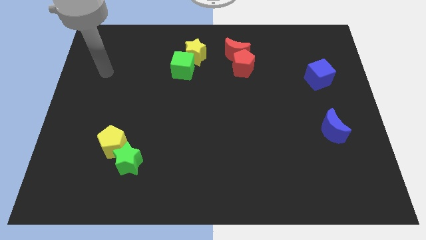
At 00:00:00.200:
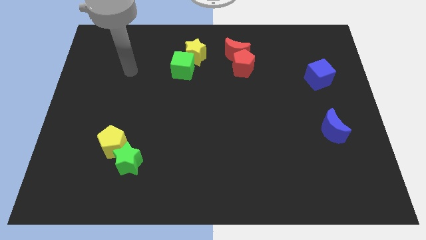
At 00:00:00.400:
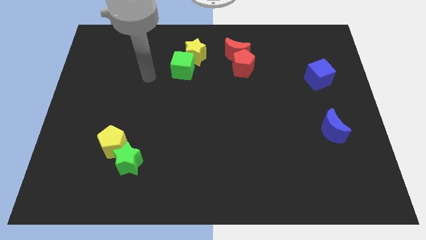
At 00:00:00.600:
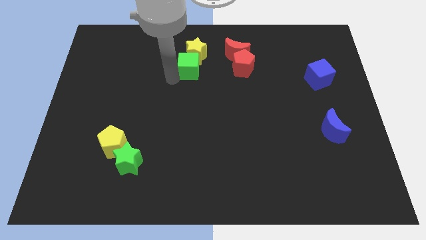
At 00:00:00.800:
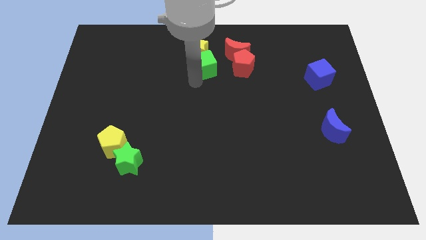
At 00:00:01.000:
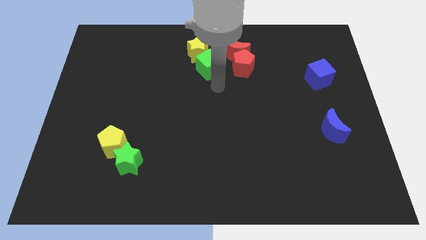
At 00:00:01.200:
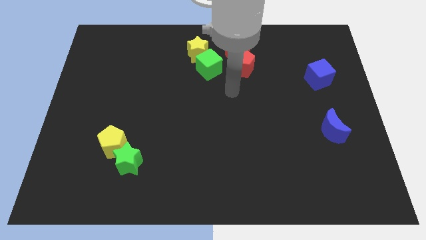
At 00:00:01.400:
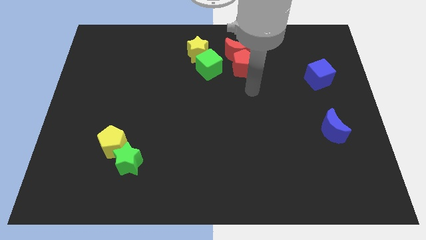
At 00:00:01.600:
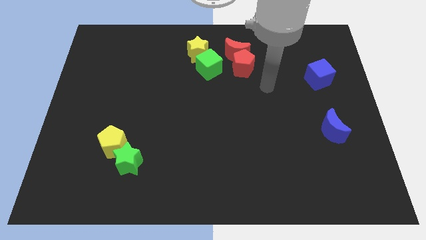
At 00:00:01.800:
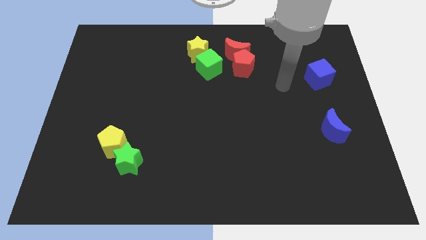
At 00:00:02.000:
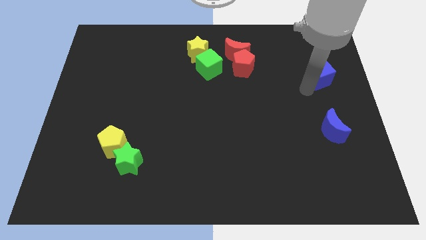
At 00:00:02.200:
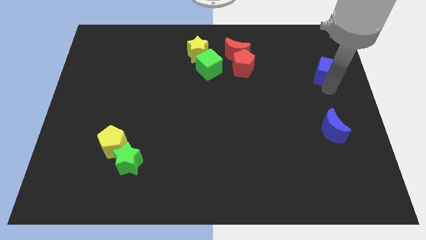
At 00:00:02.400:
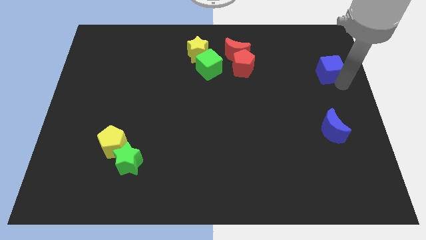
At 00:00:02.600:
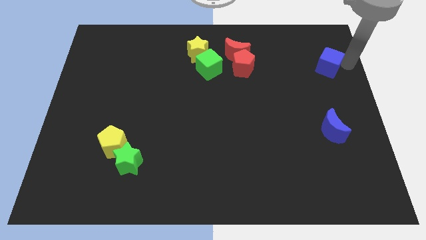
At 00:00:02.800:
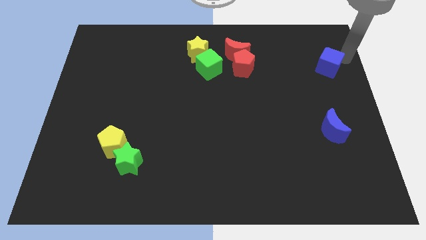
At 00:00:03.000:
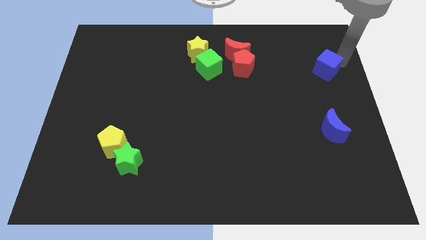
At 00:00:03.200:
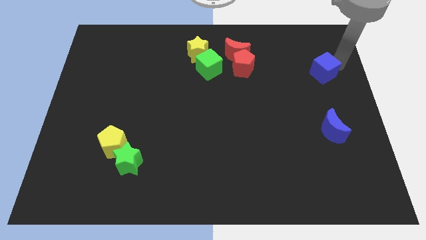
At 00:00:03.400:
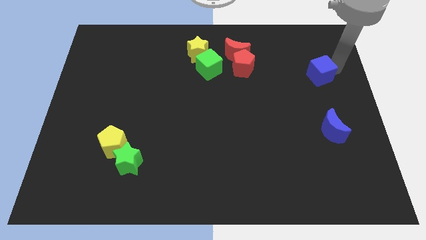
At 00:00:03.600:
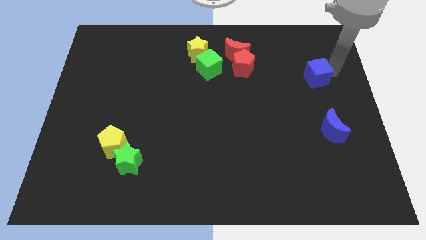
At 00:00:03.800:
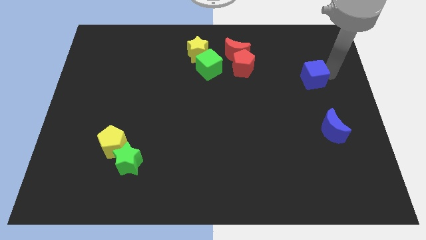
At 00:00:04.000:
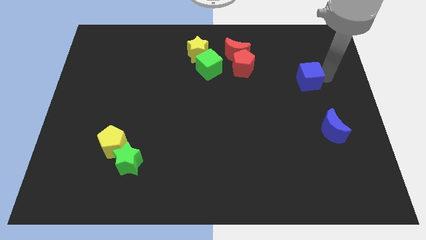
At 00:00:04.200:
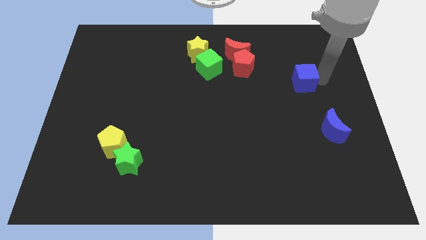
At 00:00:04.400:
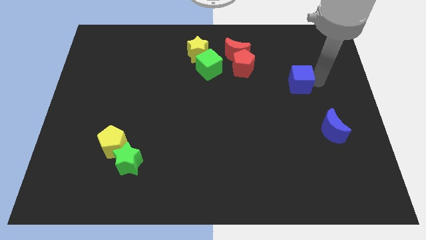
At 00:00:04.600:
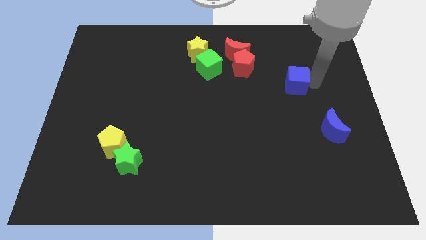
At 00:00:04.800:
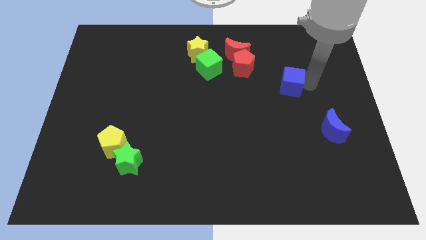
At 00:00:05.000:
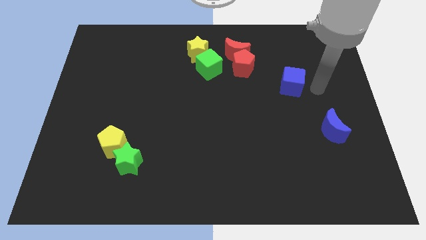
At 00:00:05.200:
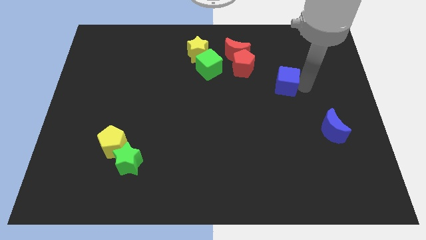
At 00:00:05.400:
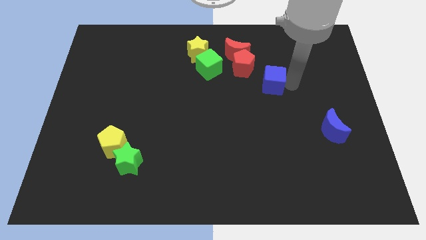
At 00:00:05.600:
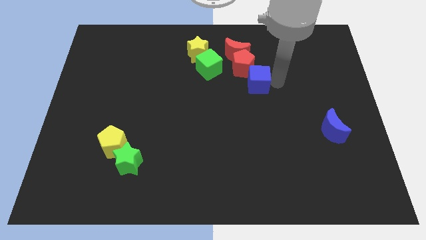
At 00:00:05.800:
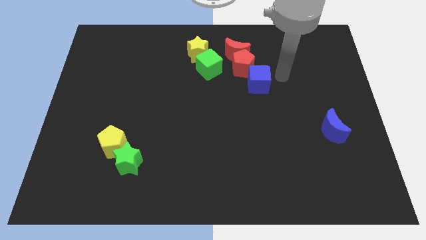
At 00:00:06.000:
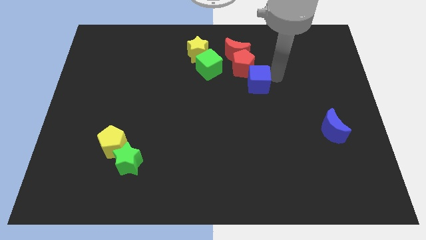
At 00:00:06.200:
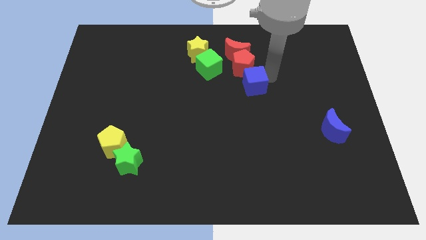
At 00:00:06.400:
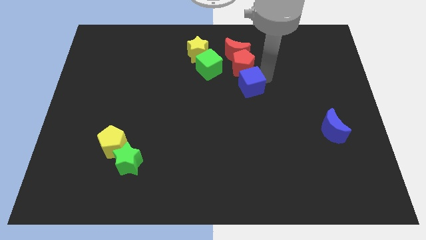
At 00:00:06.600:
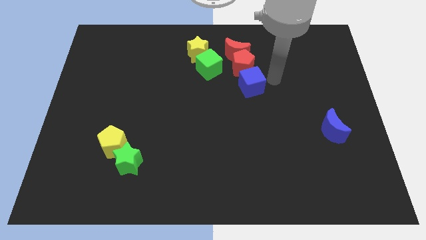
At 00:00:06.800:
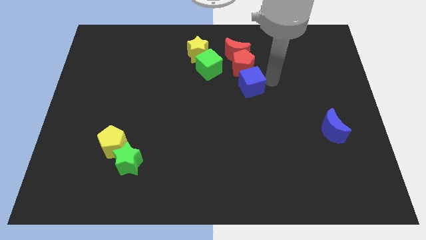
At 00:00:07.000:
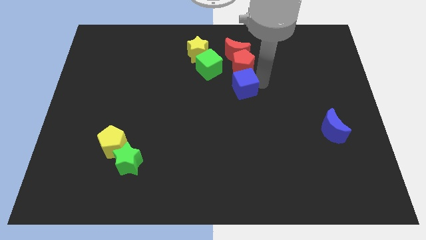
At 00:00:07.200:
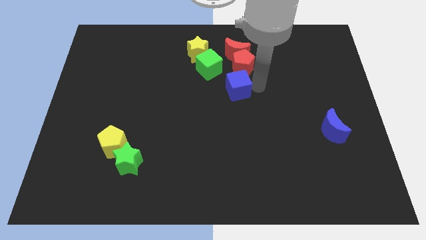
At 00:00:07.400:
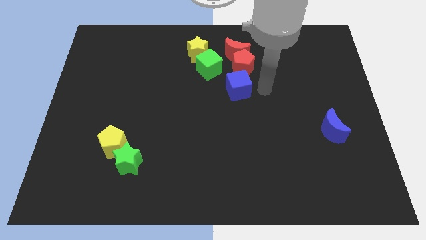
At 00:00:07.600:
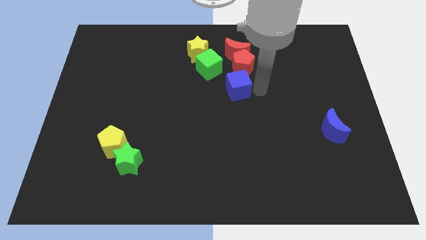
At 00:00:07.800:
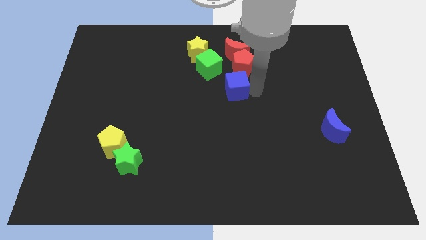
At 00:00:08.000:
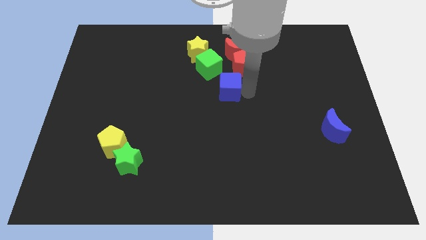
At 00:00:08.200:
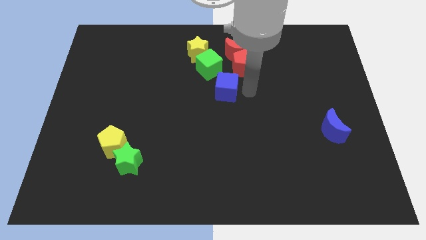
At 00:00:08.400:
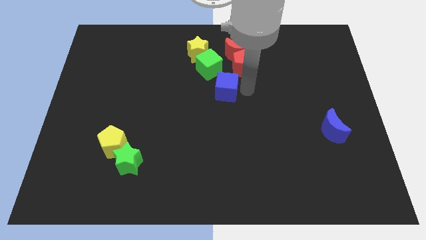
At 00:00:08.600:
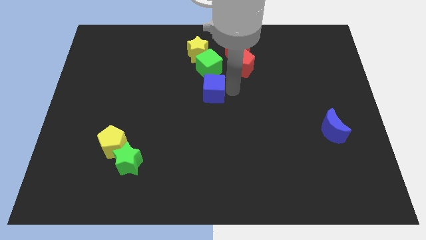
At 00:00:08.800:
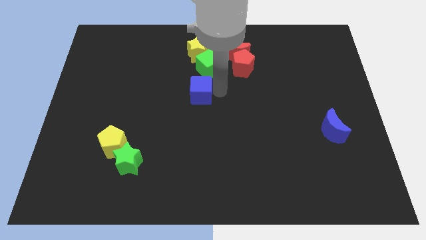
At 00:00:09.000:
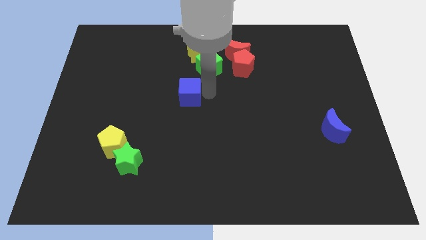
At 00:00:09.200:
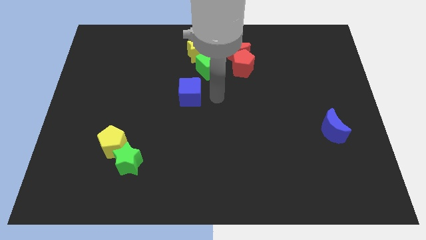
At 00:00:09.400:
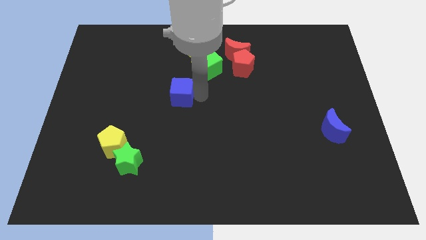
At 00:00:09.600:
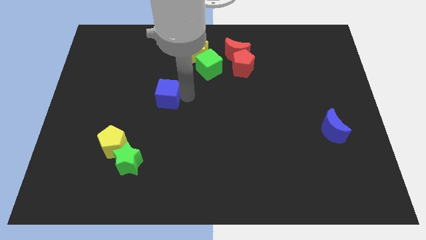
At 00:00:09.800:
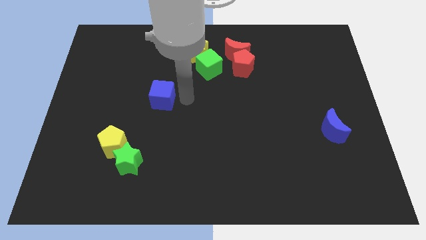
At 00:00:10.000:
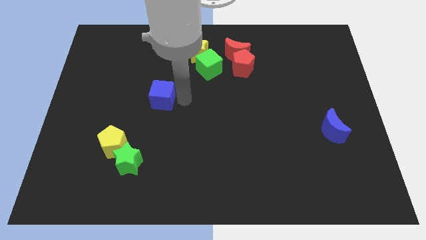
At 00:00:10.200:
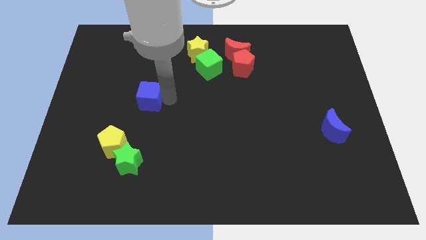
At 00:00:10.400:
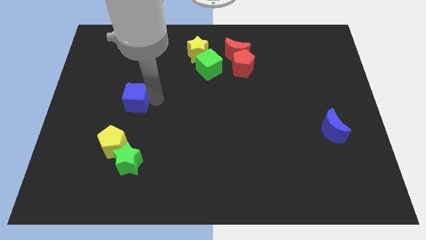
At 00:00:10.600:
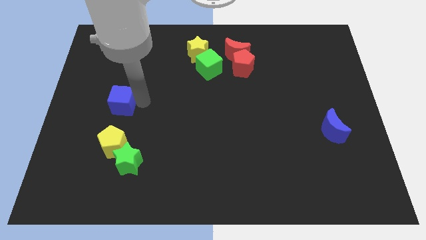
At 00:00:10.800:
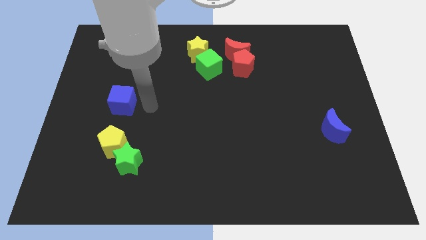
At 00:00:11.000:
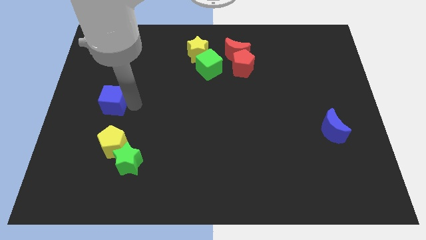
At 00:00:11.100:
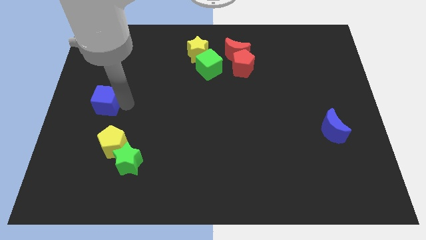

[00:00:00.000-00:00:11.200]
push the blue cube to the left side
